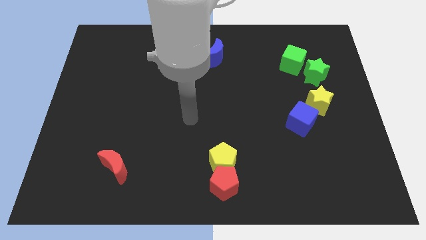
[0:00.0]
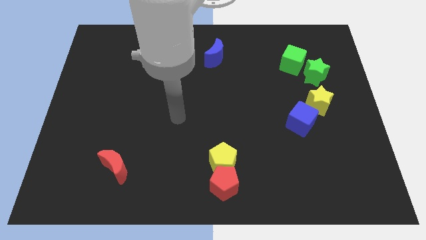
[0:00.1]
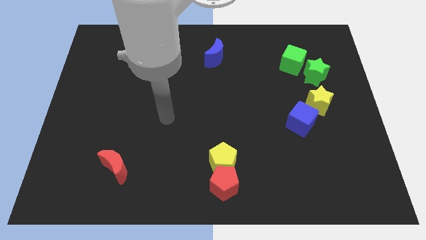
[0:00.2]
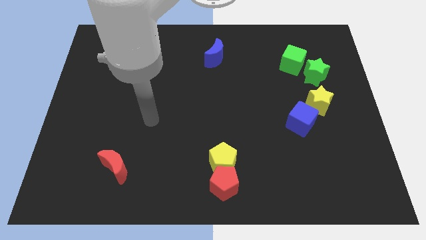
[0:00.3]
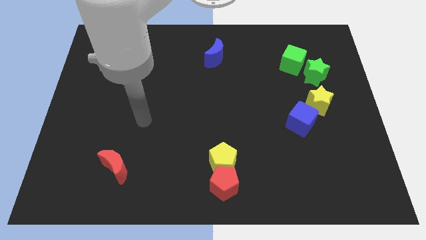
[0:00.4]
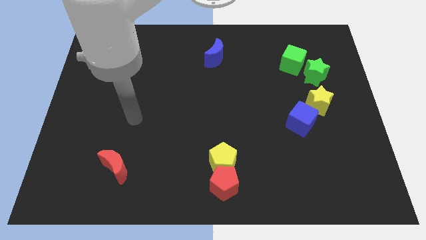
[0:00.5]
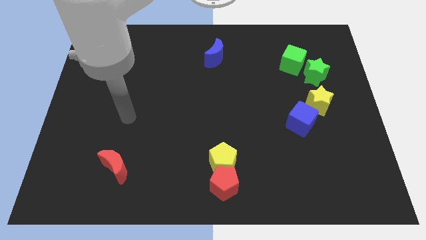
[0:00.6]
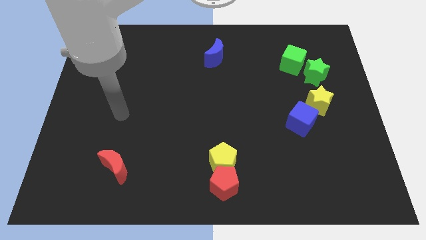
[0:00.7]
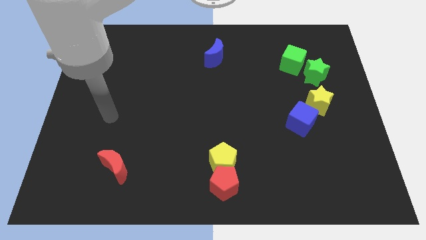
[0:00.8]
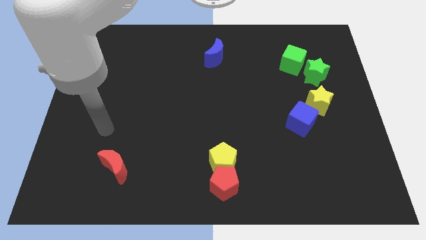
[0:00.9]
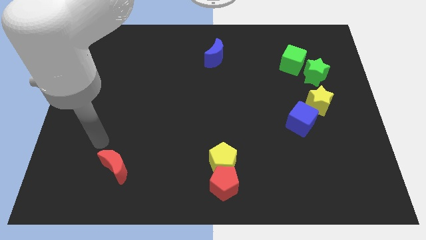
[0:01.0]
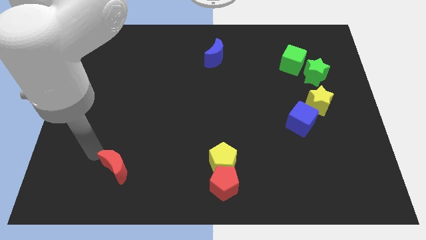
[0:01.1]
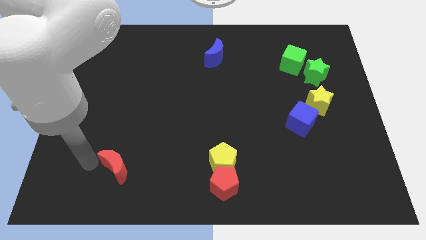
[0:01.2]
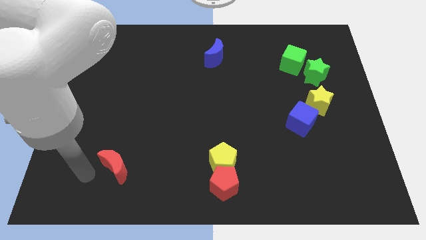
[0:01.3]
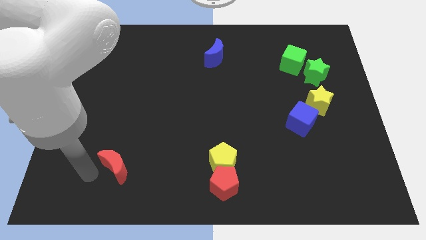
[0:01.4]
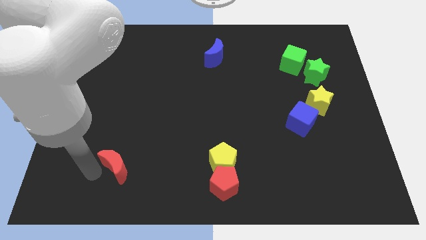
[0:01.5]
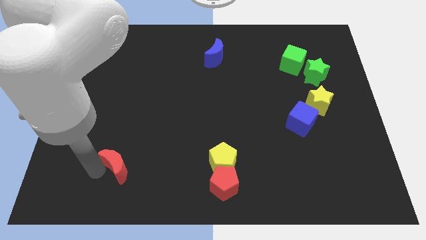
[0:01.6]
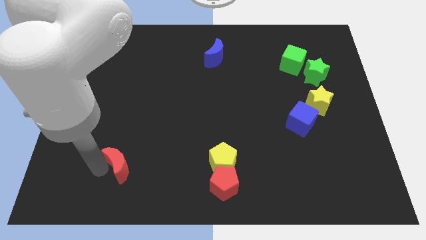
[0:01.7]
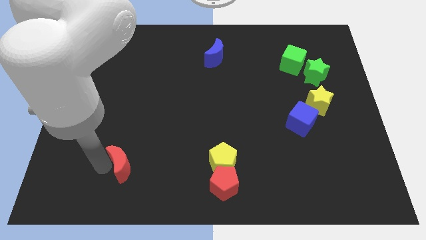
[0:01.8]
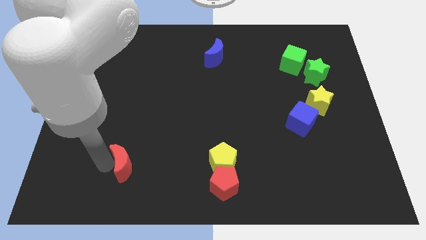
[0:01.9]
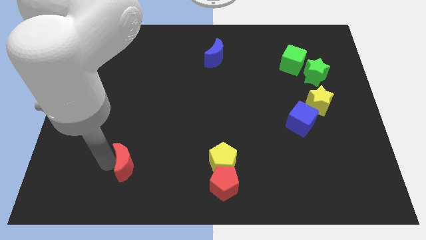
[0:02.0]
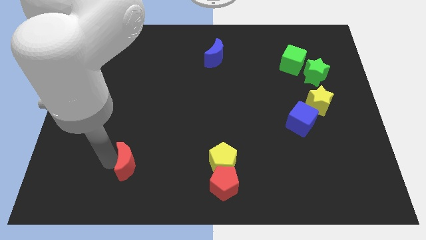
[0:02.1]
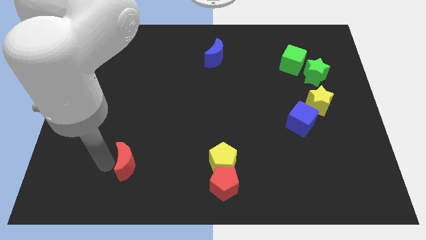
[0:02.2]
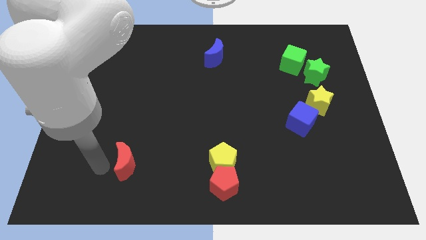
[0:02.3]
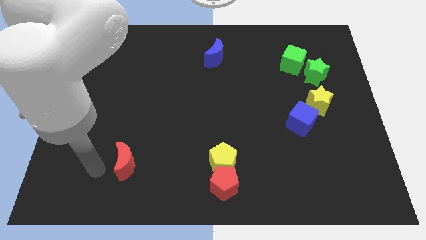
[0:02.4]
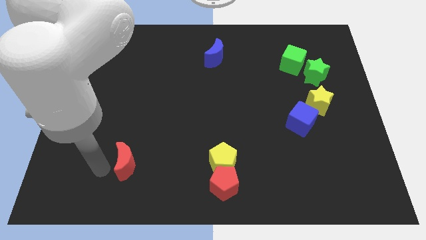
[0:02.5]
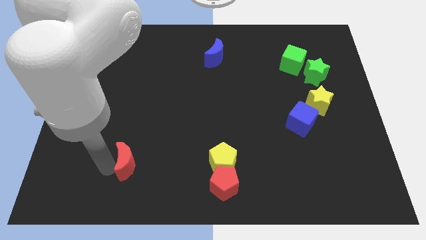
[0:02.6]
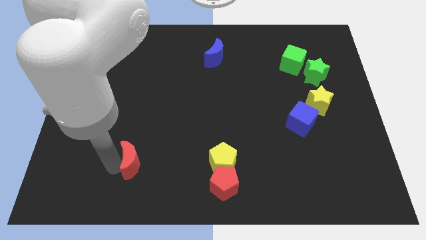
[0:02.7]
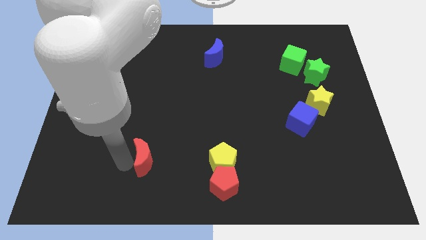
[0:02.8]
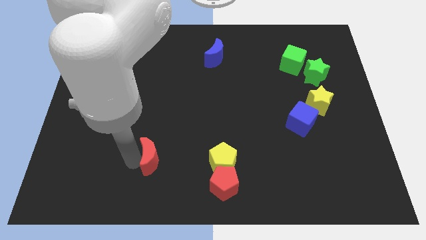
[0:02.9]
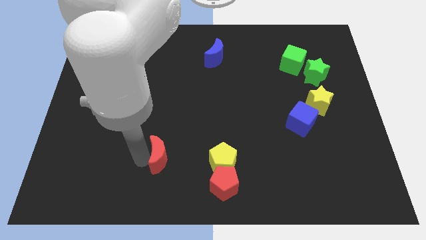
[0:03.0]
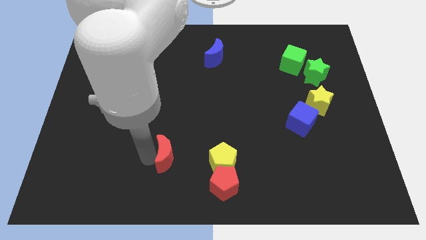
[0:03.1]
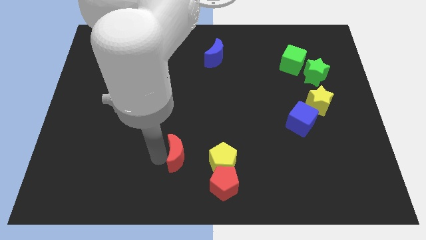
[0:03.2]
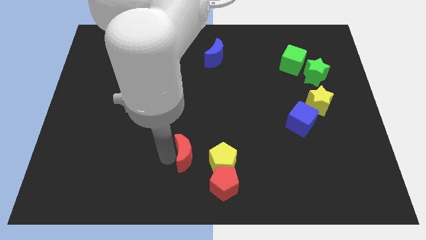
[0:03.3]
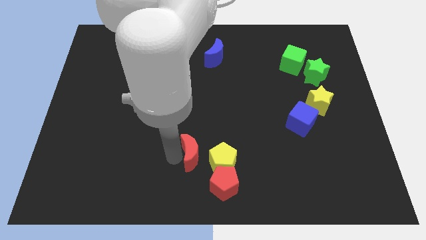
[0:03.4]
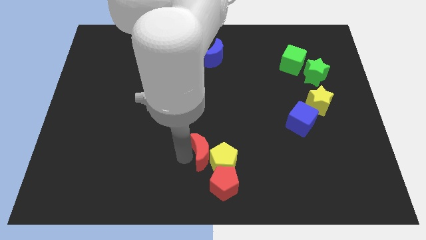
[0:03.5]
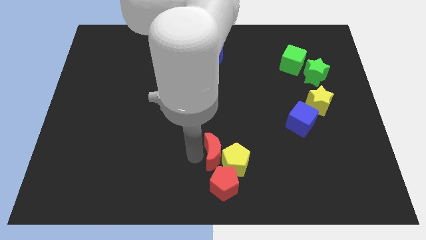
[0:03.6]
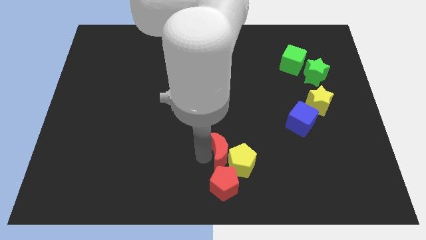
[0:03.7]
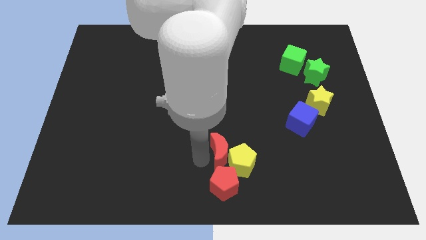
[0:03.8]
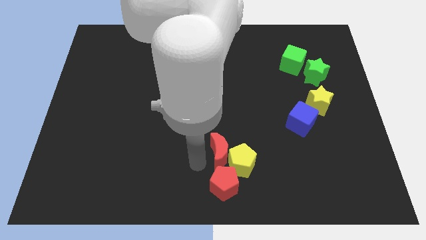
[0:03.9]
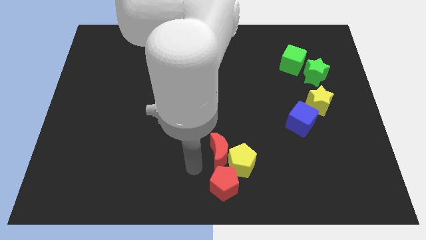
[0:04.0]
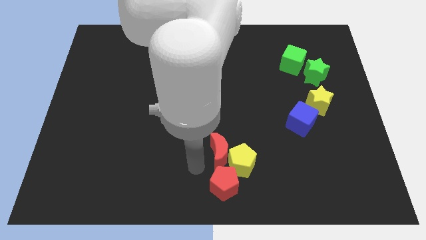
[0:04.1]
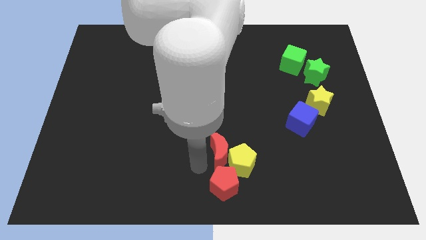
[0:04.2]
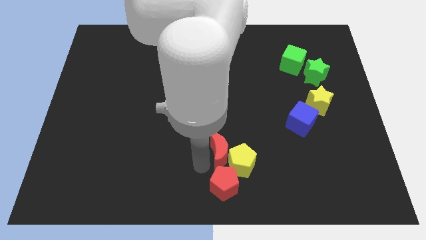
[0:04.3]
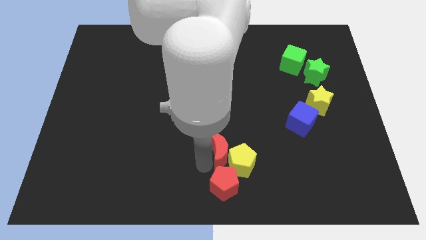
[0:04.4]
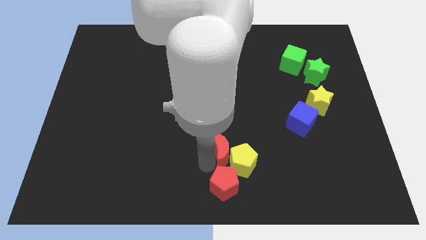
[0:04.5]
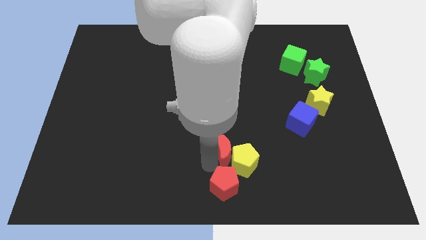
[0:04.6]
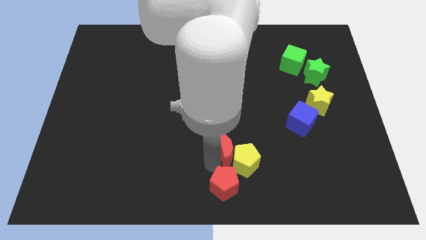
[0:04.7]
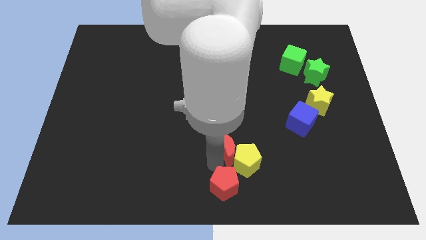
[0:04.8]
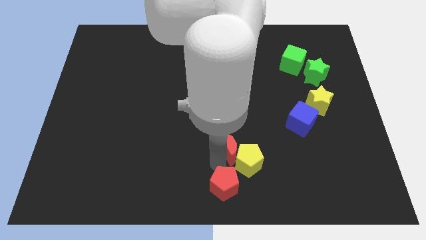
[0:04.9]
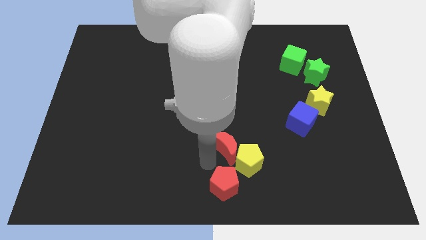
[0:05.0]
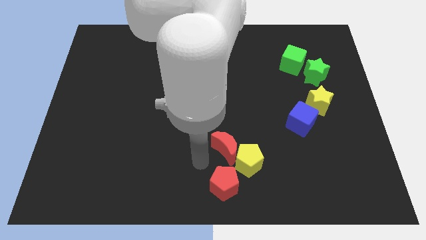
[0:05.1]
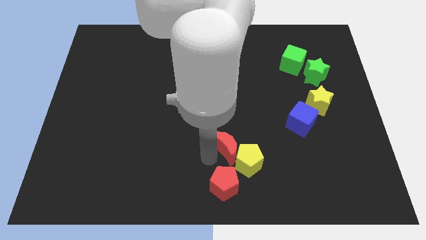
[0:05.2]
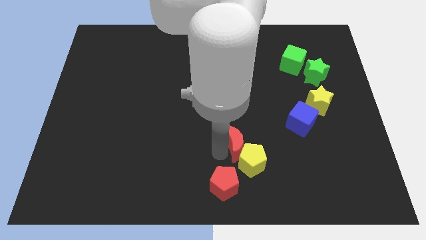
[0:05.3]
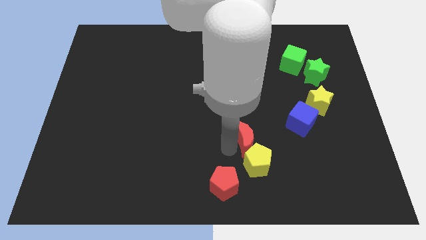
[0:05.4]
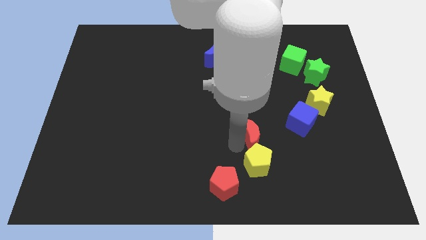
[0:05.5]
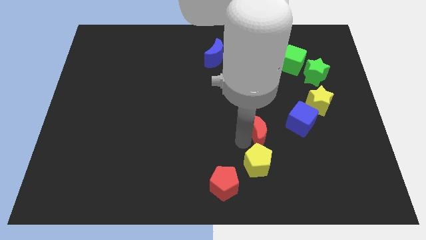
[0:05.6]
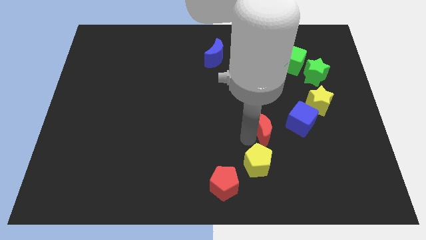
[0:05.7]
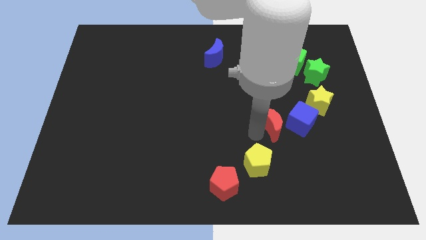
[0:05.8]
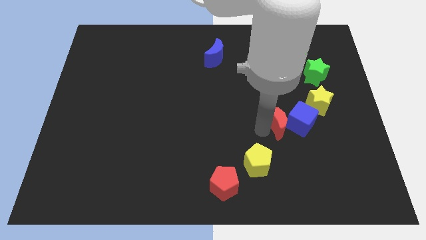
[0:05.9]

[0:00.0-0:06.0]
push the red moon next to the blue cube

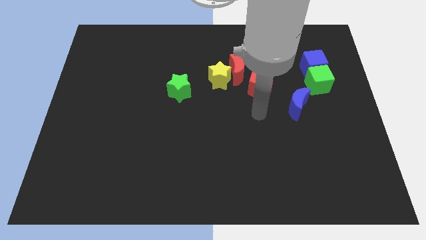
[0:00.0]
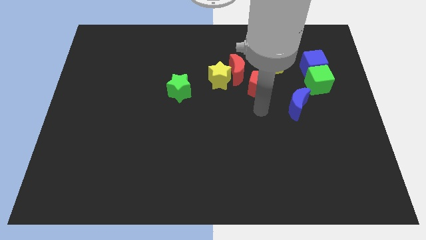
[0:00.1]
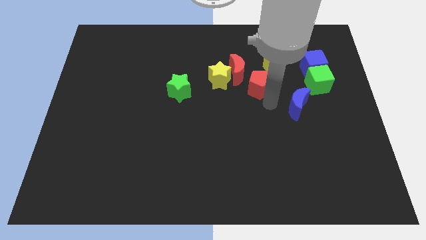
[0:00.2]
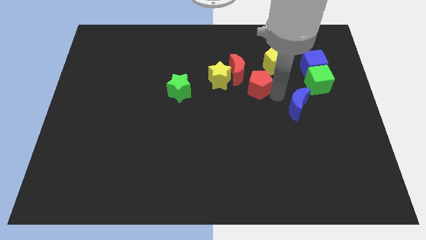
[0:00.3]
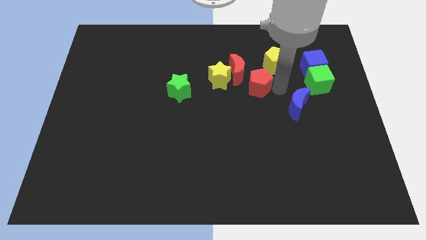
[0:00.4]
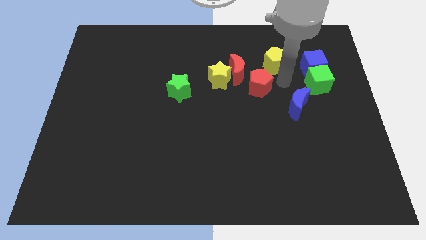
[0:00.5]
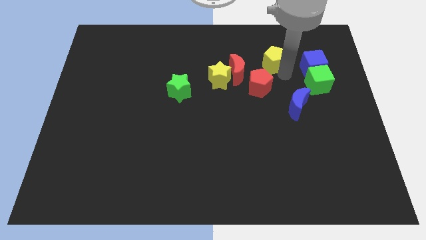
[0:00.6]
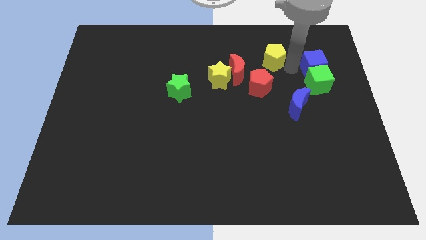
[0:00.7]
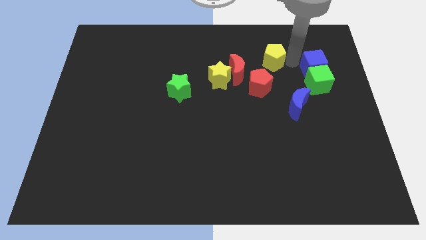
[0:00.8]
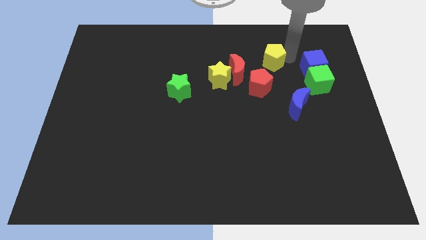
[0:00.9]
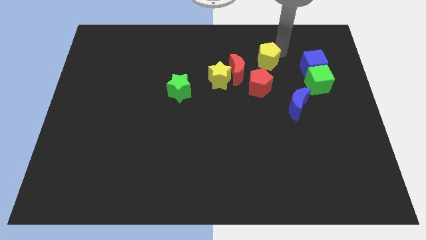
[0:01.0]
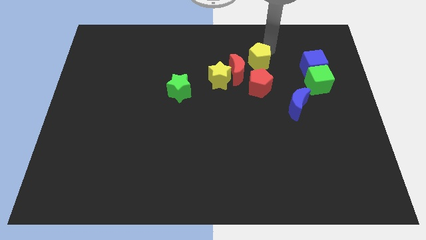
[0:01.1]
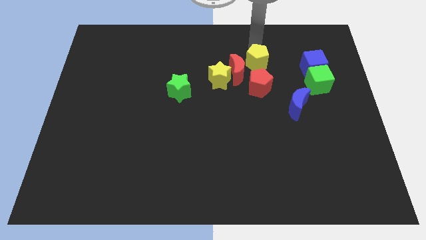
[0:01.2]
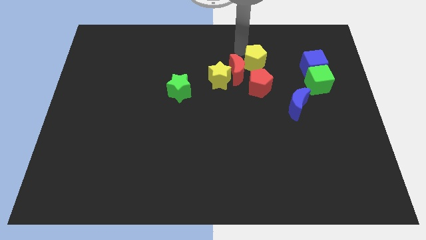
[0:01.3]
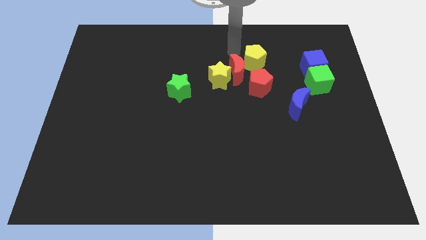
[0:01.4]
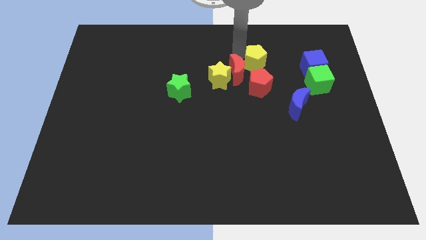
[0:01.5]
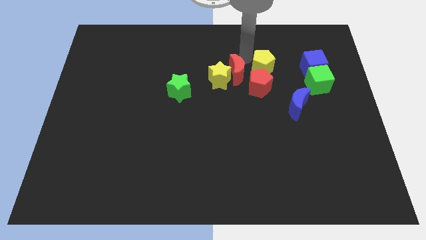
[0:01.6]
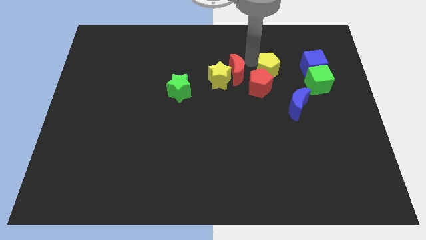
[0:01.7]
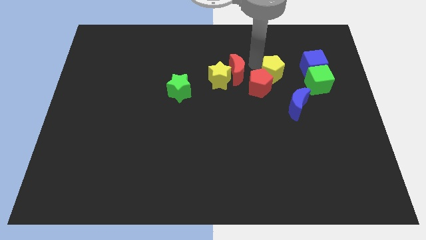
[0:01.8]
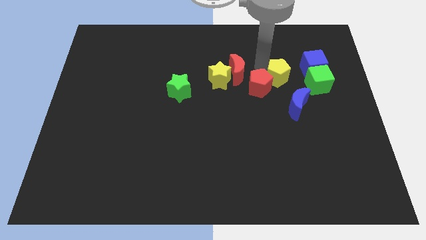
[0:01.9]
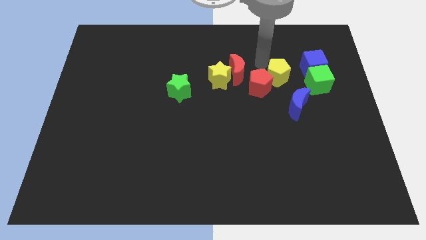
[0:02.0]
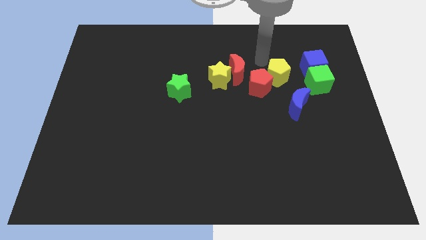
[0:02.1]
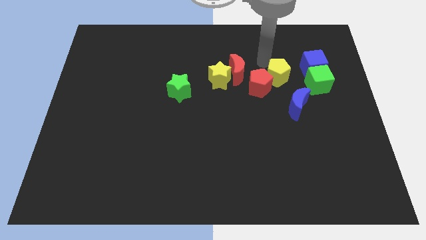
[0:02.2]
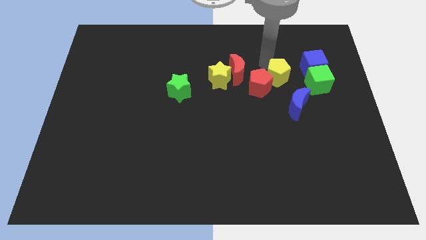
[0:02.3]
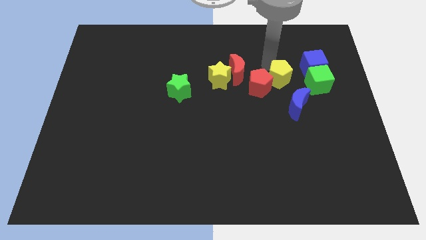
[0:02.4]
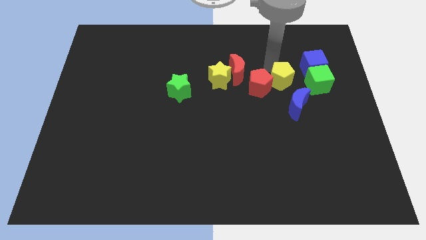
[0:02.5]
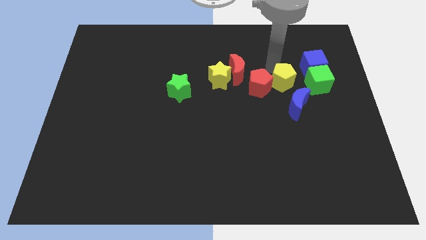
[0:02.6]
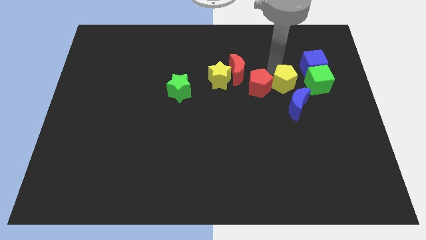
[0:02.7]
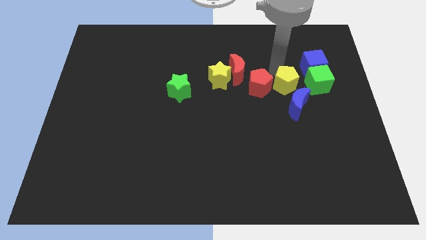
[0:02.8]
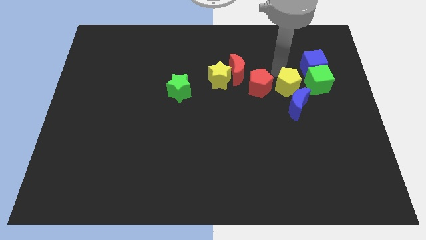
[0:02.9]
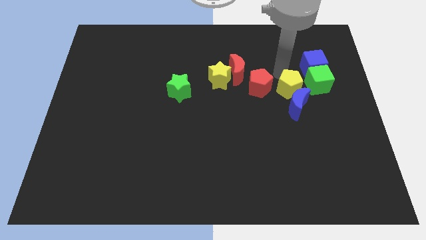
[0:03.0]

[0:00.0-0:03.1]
push the yellow pentagon to the blue moon
